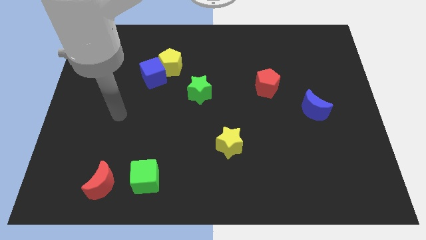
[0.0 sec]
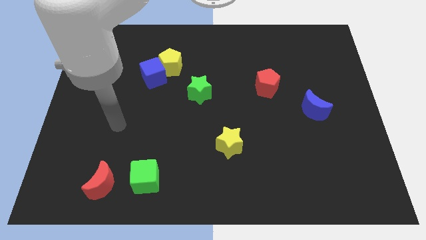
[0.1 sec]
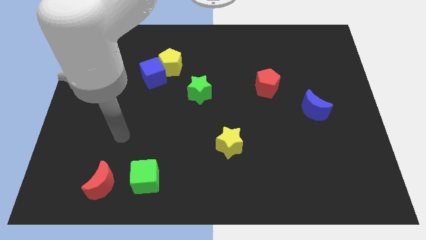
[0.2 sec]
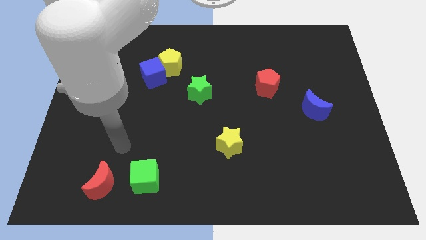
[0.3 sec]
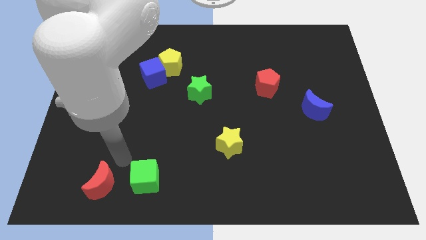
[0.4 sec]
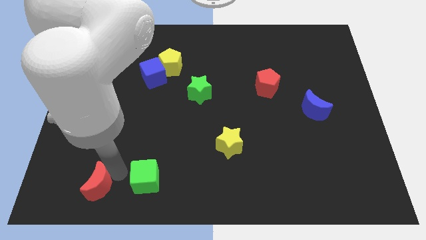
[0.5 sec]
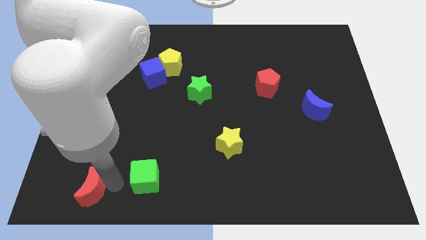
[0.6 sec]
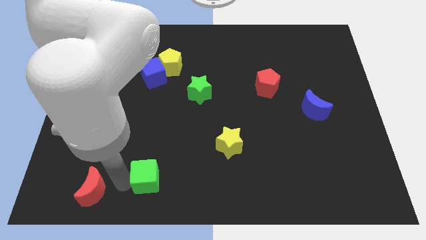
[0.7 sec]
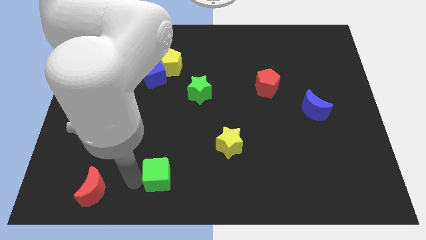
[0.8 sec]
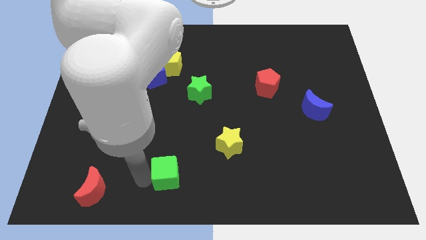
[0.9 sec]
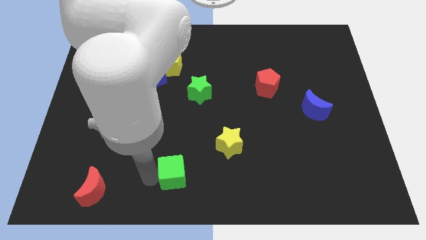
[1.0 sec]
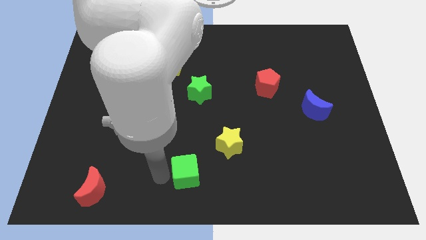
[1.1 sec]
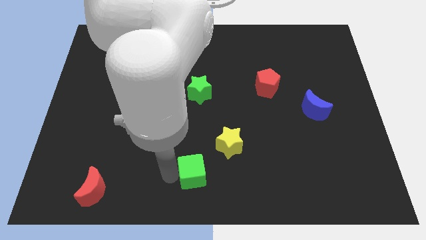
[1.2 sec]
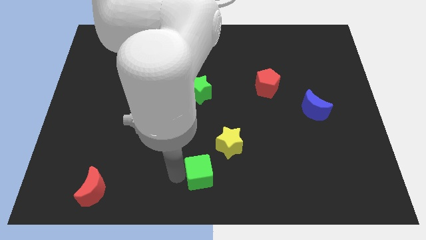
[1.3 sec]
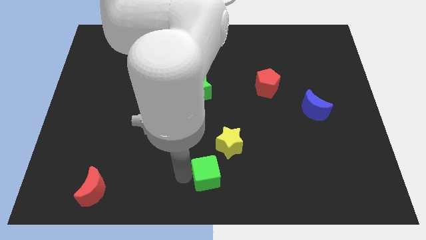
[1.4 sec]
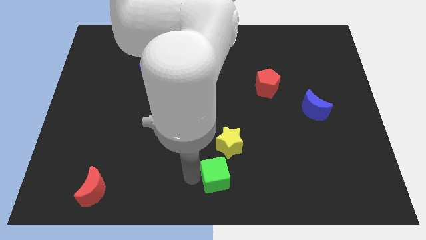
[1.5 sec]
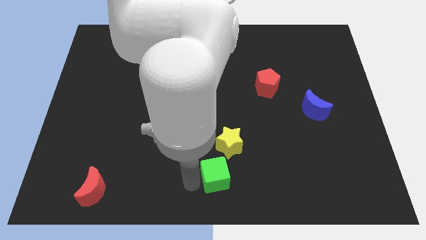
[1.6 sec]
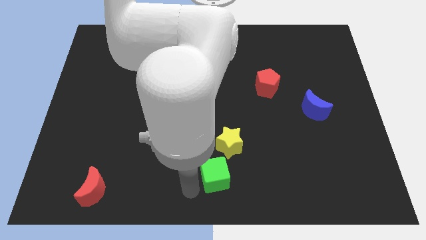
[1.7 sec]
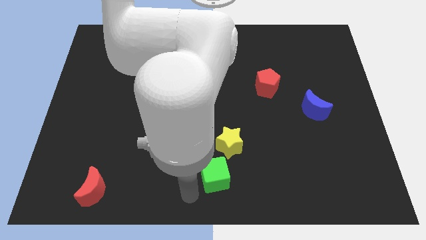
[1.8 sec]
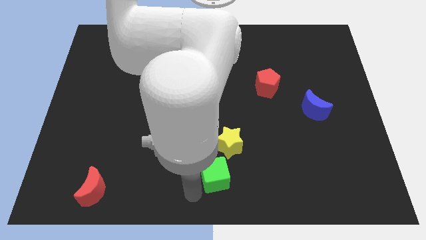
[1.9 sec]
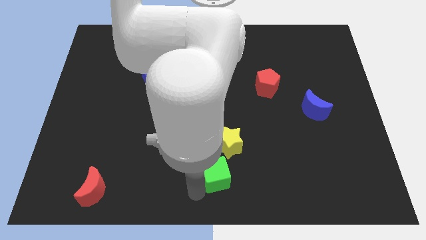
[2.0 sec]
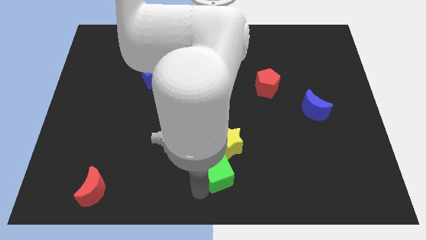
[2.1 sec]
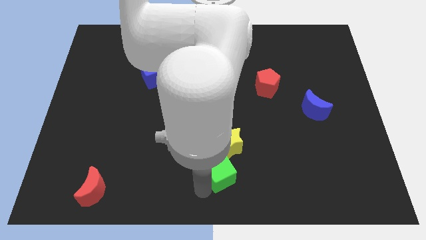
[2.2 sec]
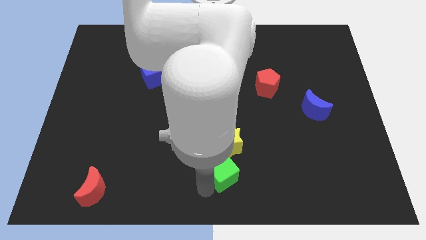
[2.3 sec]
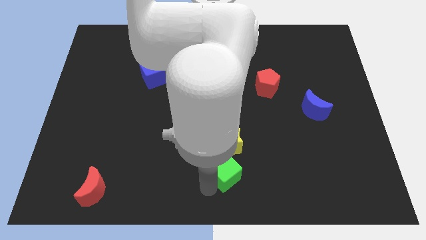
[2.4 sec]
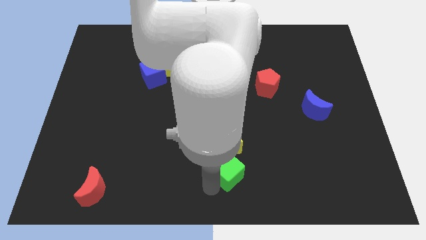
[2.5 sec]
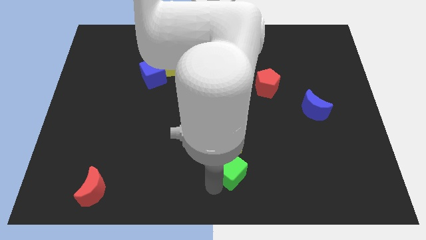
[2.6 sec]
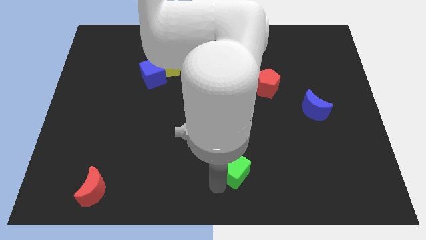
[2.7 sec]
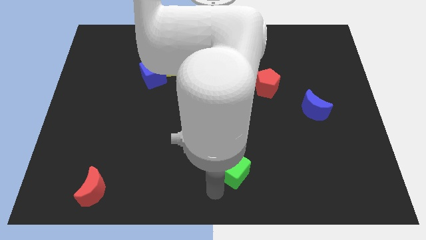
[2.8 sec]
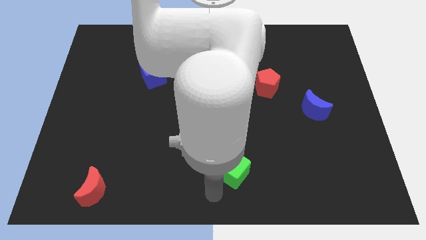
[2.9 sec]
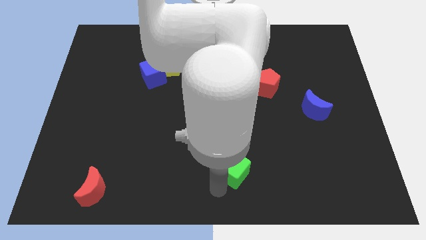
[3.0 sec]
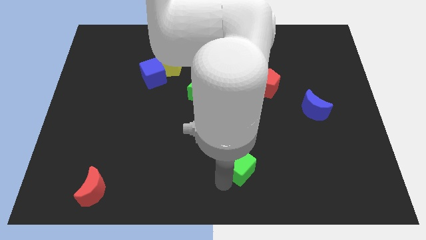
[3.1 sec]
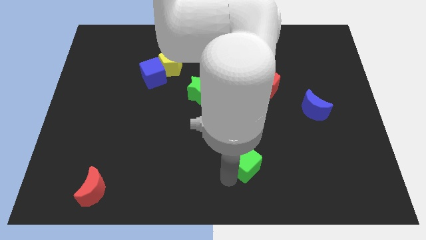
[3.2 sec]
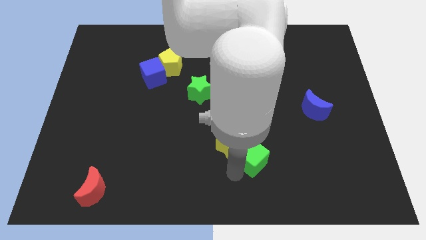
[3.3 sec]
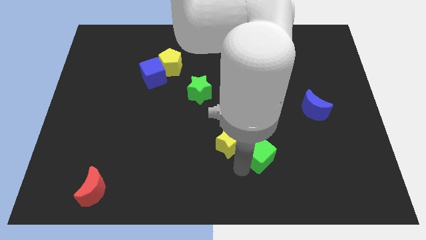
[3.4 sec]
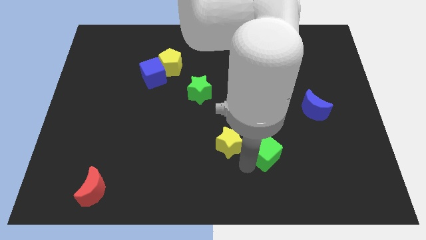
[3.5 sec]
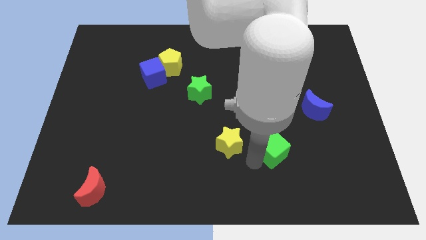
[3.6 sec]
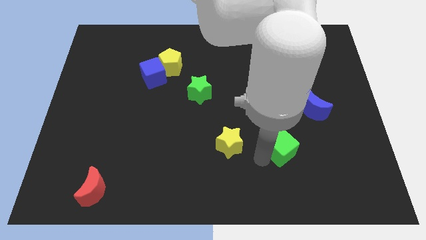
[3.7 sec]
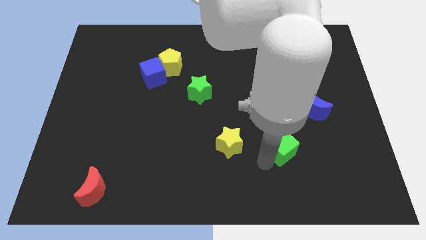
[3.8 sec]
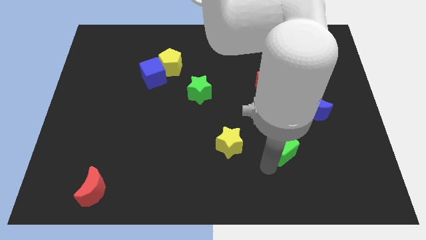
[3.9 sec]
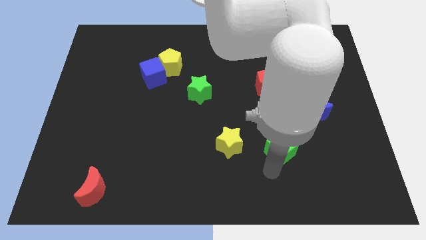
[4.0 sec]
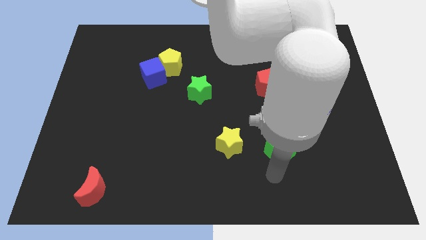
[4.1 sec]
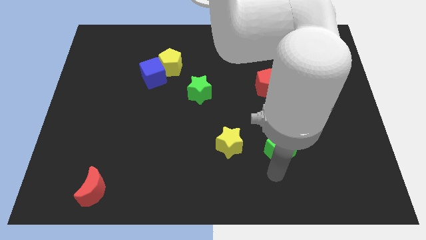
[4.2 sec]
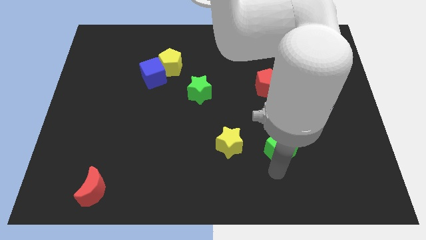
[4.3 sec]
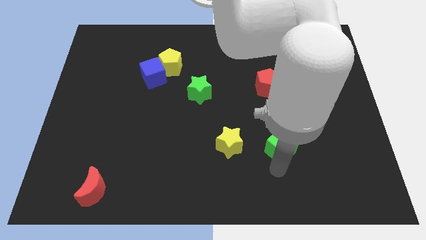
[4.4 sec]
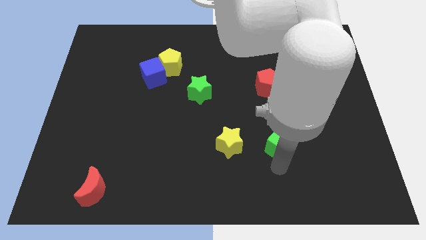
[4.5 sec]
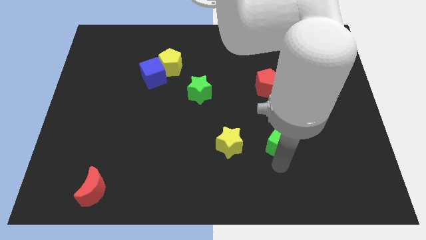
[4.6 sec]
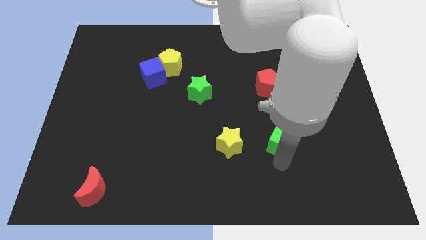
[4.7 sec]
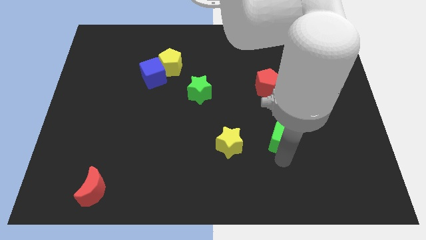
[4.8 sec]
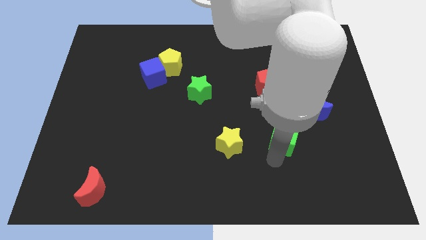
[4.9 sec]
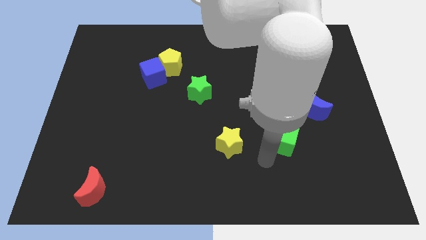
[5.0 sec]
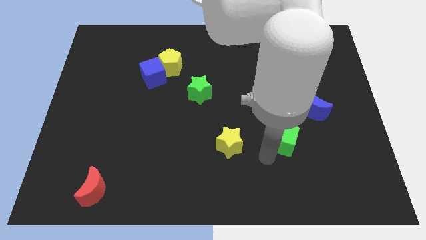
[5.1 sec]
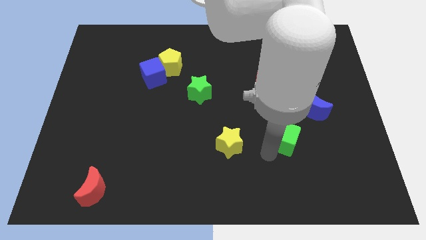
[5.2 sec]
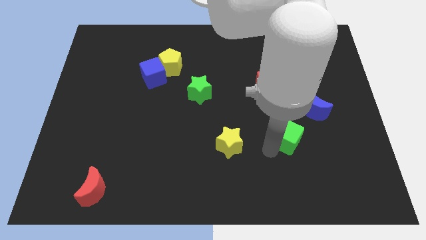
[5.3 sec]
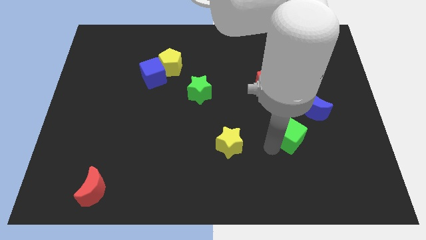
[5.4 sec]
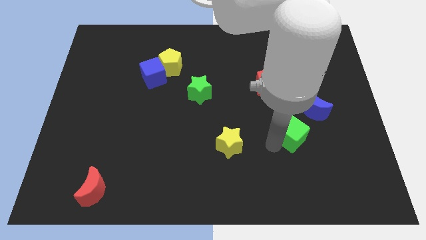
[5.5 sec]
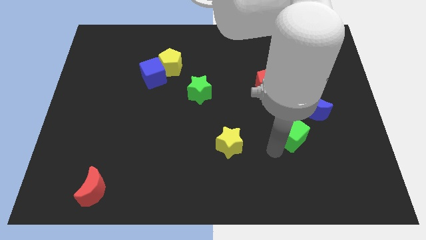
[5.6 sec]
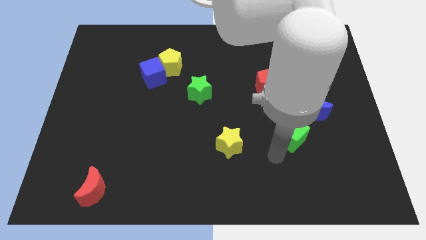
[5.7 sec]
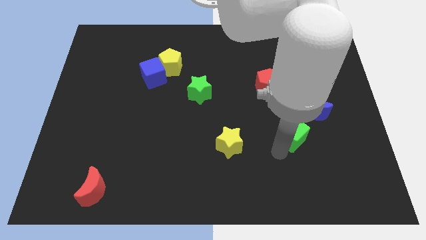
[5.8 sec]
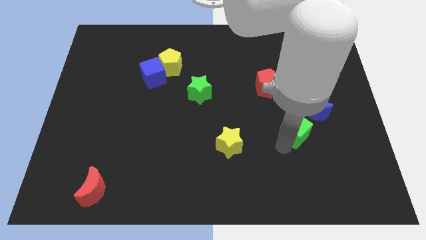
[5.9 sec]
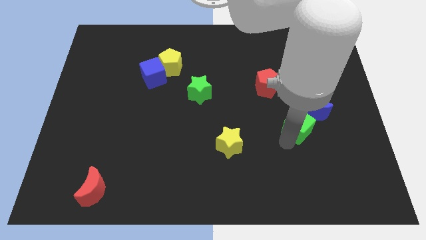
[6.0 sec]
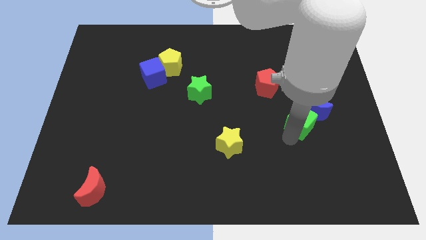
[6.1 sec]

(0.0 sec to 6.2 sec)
push the green cube towards the blue moon

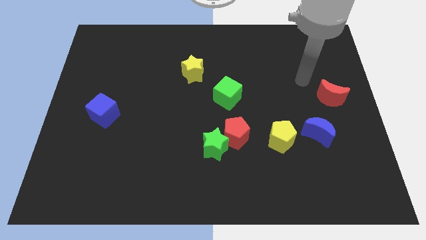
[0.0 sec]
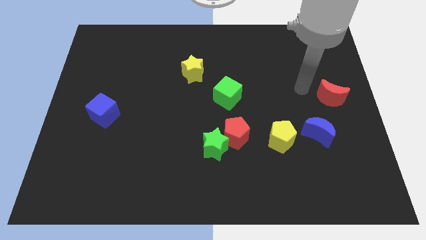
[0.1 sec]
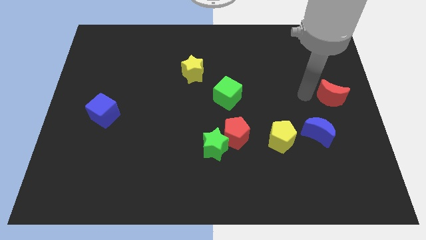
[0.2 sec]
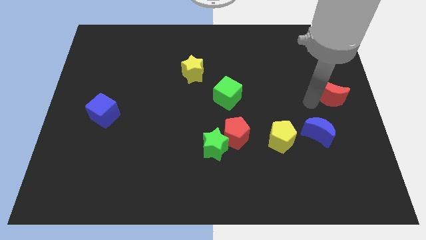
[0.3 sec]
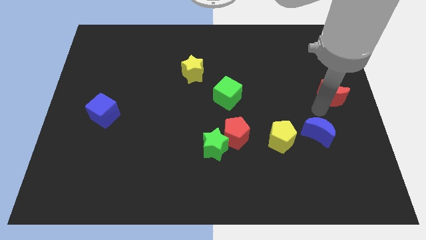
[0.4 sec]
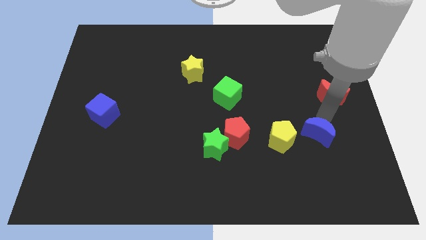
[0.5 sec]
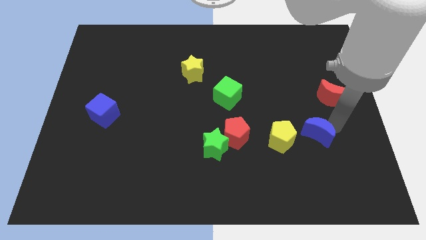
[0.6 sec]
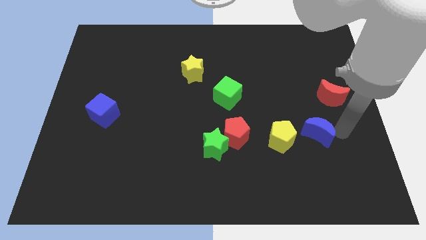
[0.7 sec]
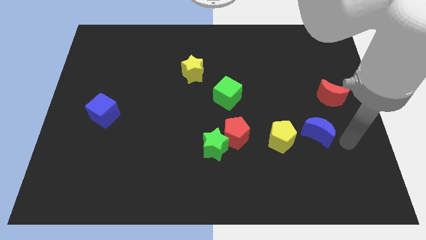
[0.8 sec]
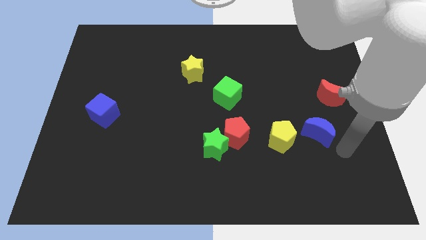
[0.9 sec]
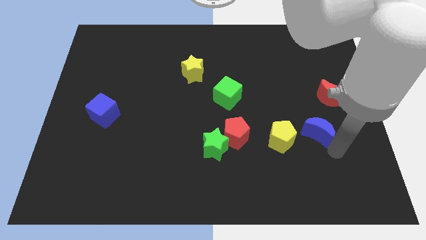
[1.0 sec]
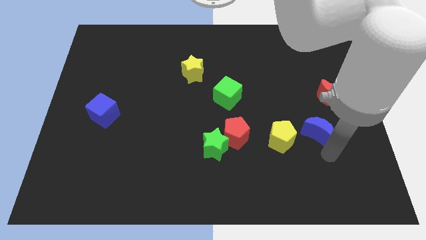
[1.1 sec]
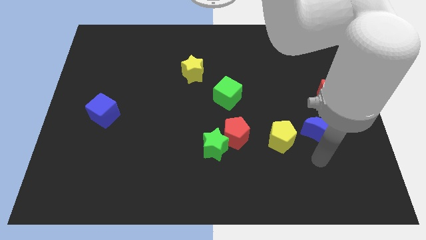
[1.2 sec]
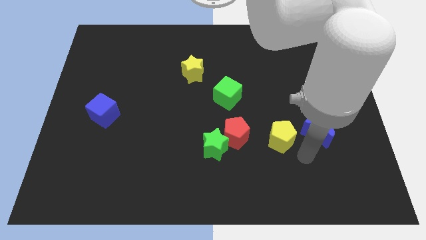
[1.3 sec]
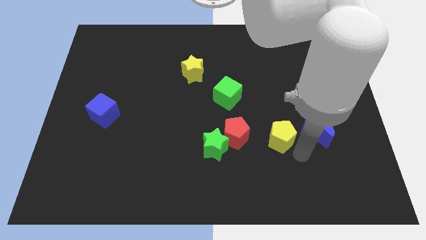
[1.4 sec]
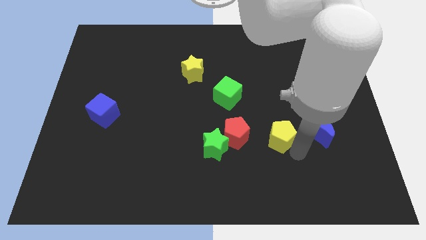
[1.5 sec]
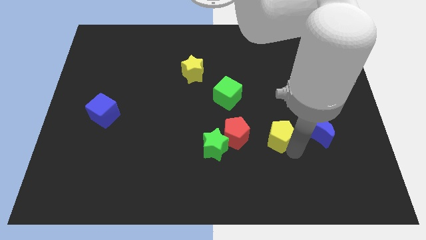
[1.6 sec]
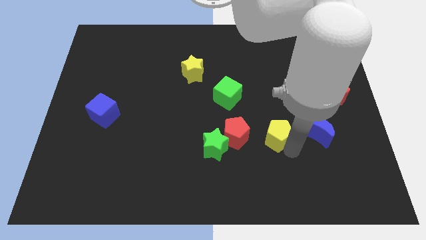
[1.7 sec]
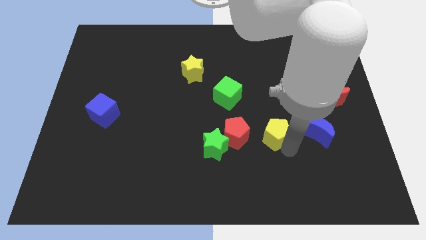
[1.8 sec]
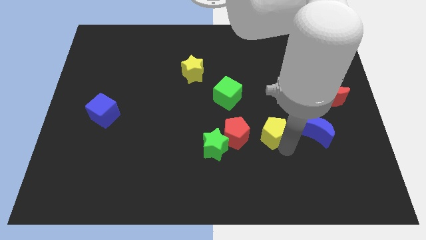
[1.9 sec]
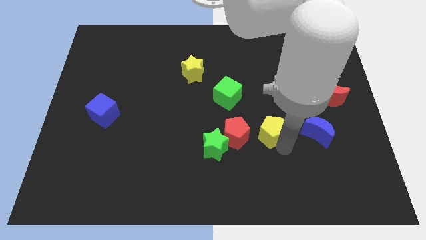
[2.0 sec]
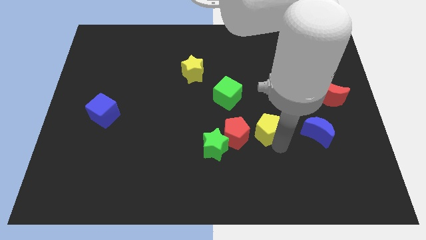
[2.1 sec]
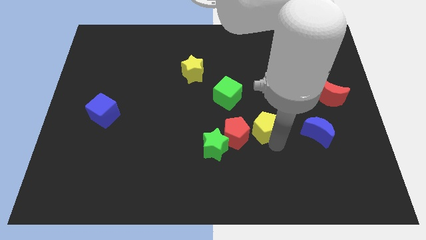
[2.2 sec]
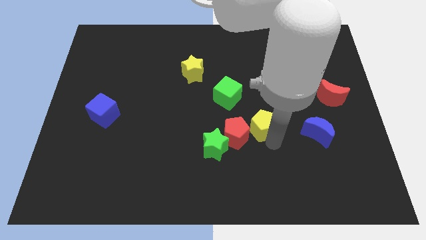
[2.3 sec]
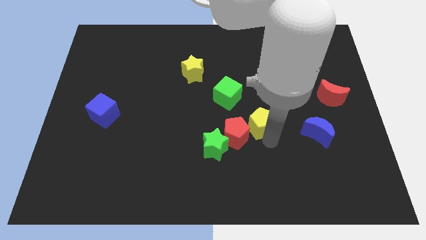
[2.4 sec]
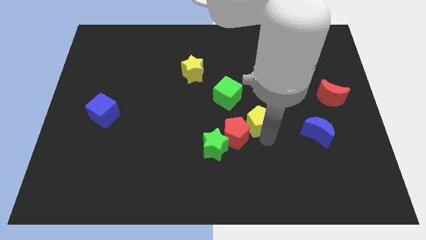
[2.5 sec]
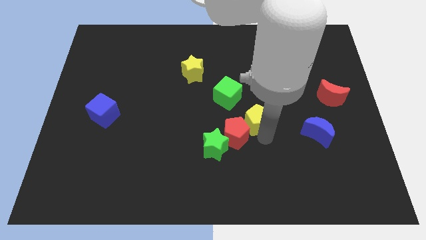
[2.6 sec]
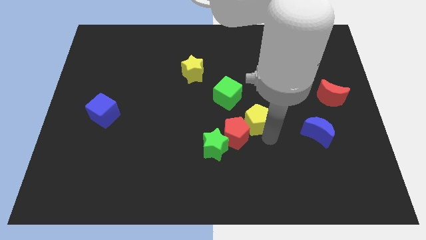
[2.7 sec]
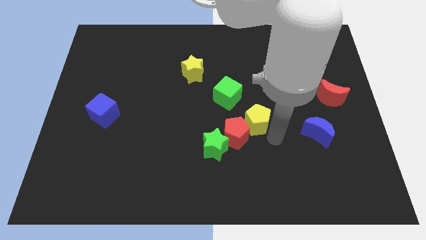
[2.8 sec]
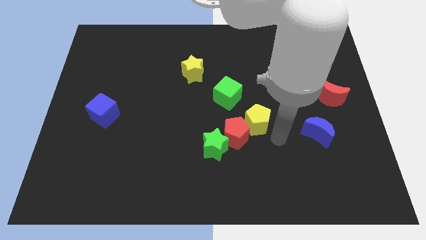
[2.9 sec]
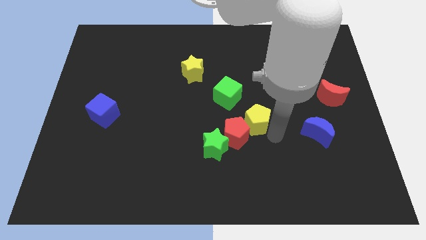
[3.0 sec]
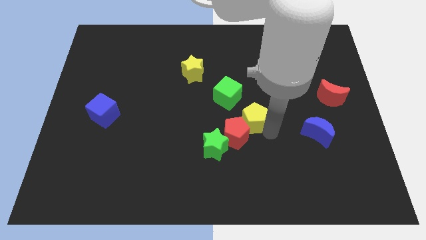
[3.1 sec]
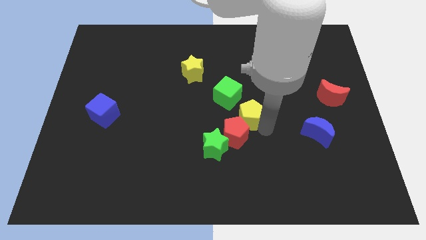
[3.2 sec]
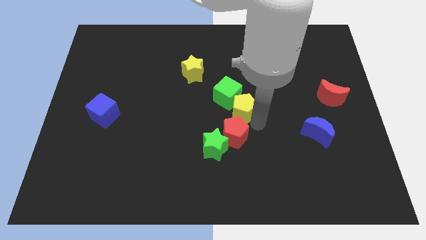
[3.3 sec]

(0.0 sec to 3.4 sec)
move the yellow pentagon close to the green cube
